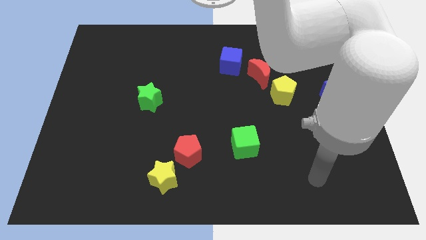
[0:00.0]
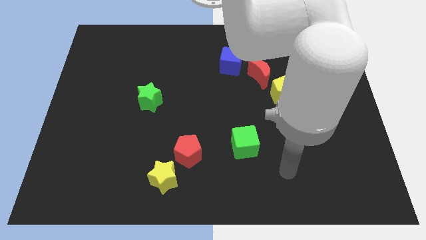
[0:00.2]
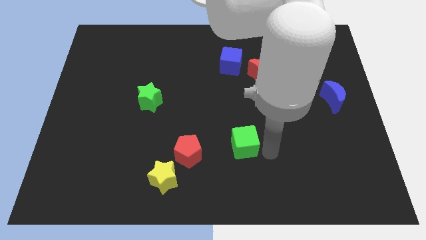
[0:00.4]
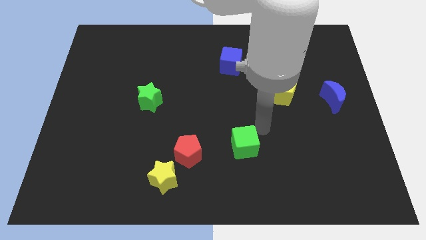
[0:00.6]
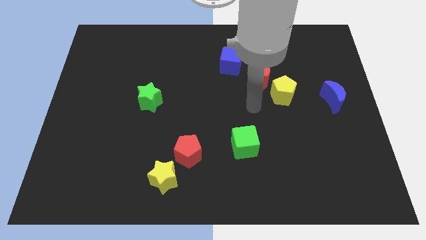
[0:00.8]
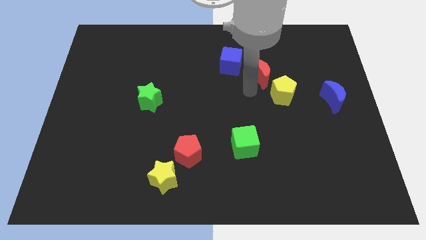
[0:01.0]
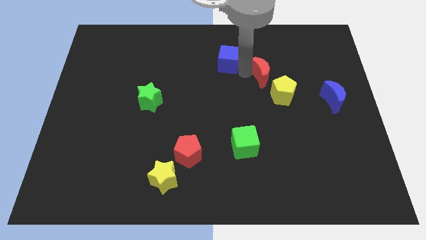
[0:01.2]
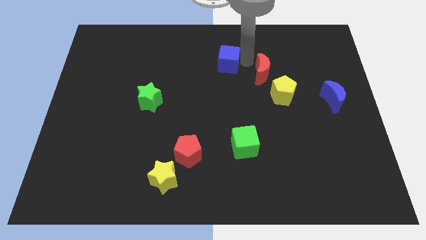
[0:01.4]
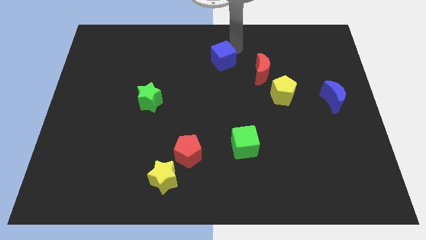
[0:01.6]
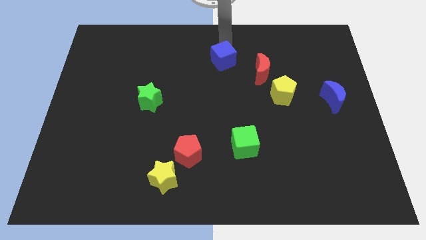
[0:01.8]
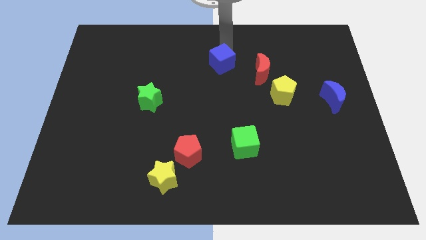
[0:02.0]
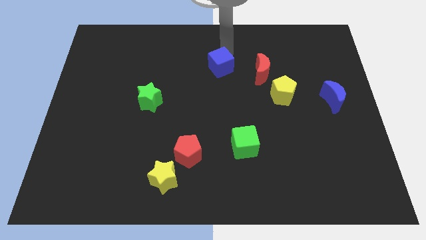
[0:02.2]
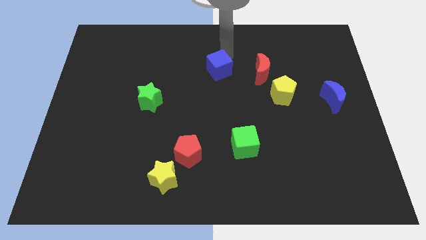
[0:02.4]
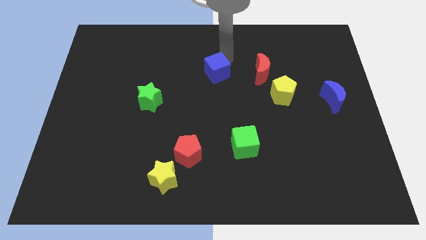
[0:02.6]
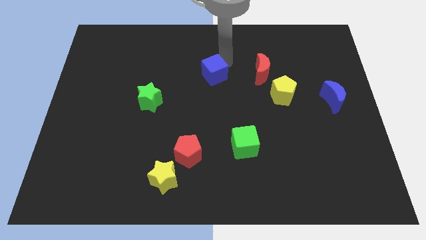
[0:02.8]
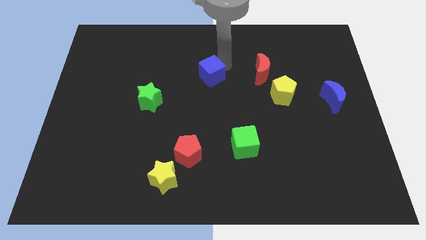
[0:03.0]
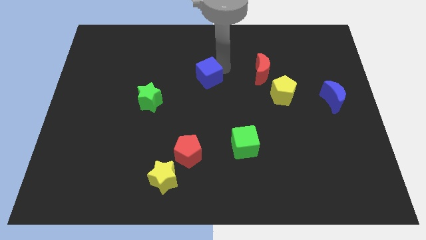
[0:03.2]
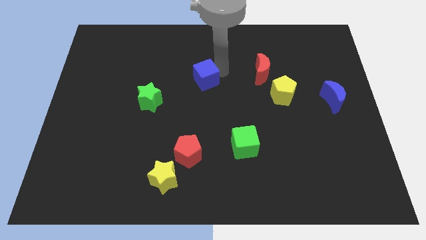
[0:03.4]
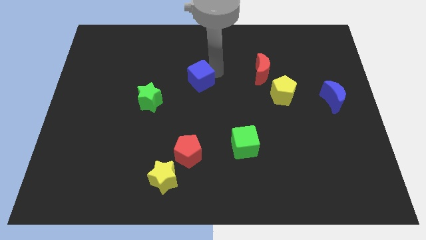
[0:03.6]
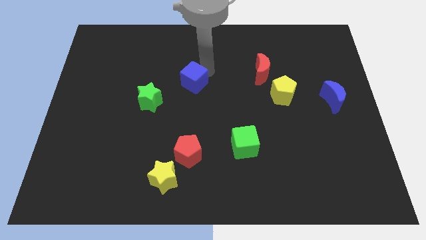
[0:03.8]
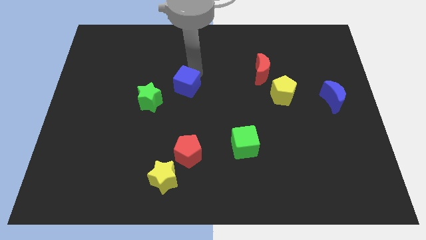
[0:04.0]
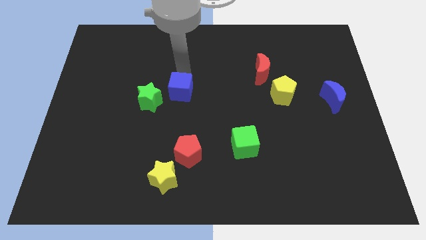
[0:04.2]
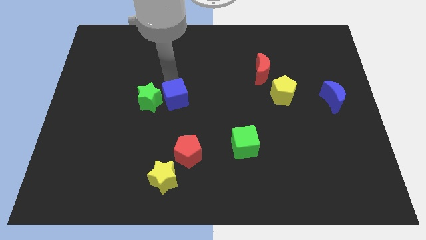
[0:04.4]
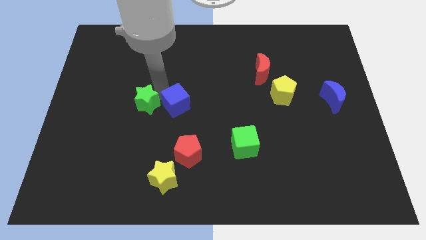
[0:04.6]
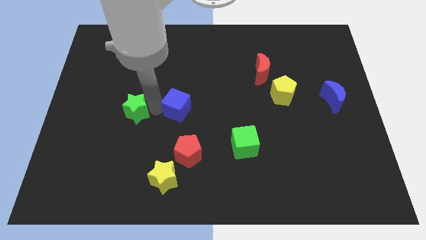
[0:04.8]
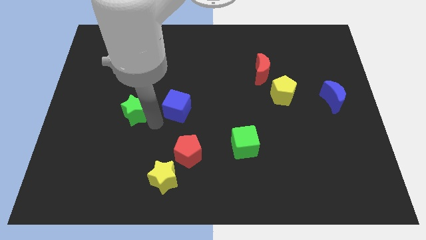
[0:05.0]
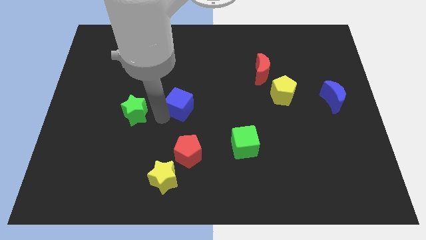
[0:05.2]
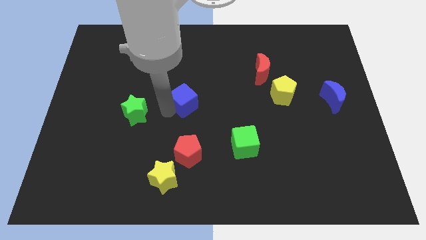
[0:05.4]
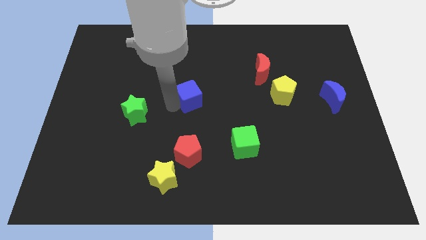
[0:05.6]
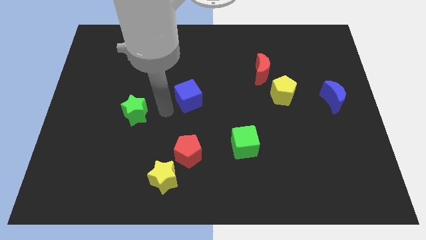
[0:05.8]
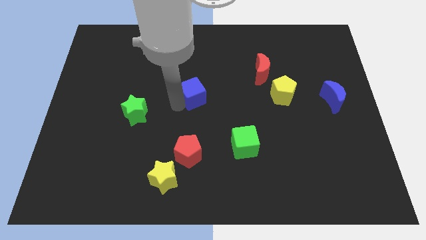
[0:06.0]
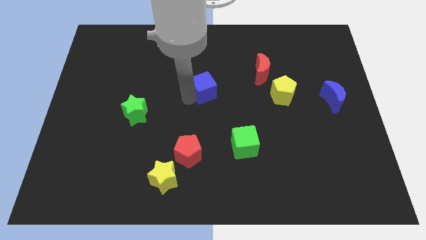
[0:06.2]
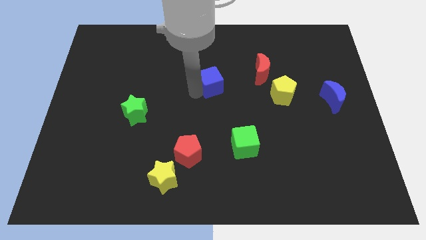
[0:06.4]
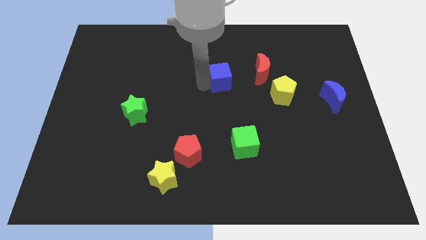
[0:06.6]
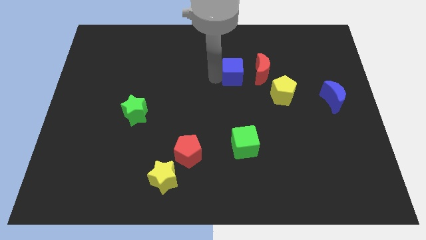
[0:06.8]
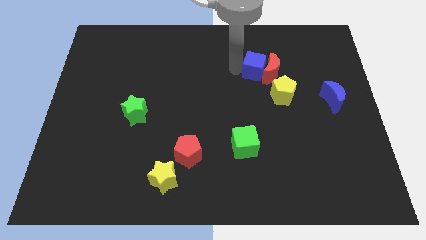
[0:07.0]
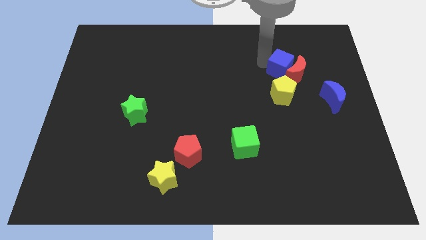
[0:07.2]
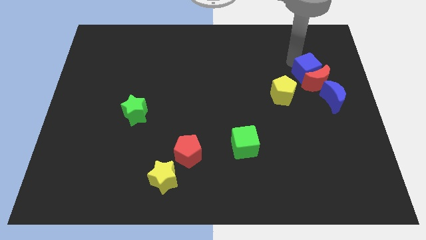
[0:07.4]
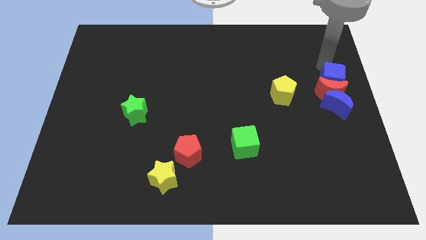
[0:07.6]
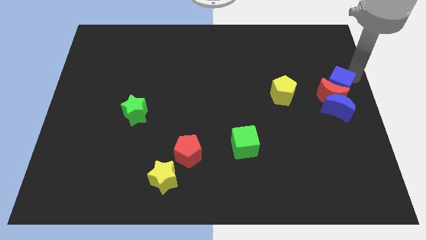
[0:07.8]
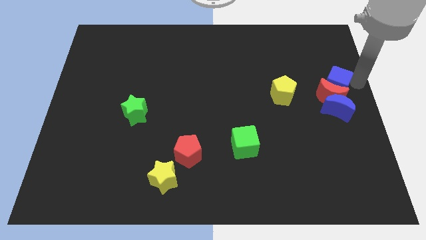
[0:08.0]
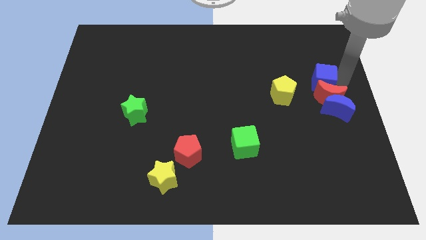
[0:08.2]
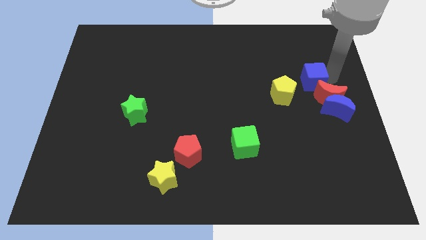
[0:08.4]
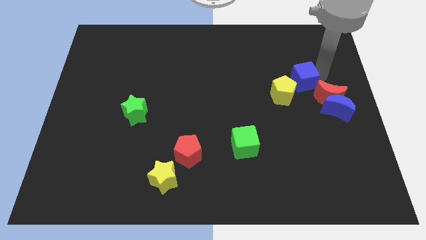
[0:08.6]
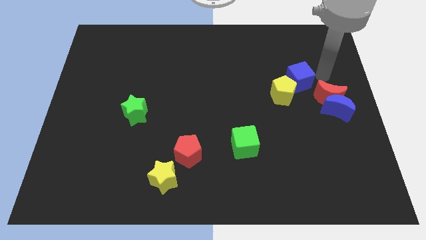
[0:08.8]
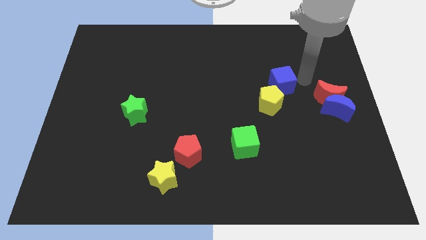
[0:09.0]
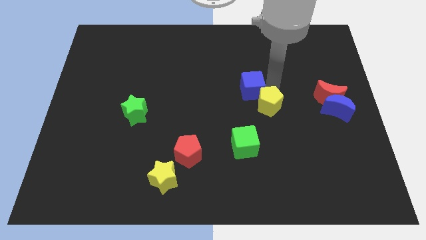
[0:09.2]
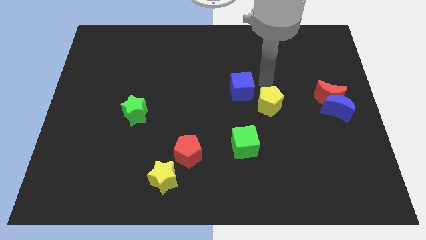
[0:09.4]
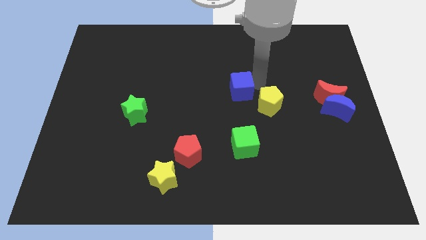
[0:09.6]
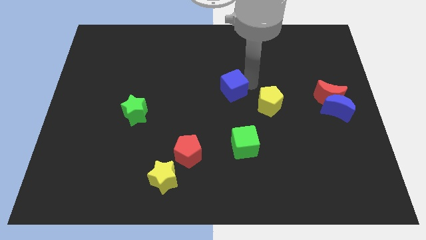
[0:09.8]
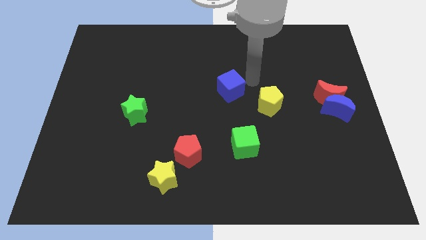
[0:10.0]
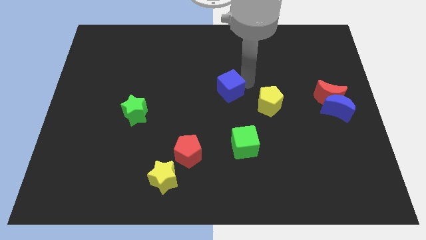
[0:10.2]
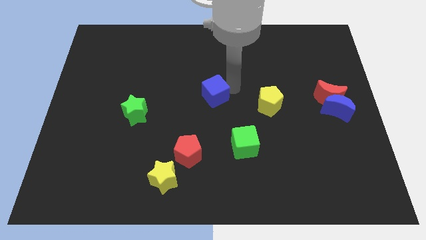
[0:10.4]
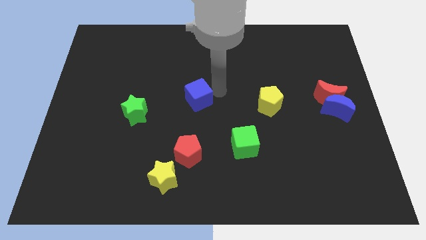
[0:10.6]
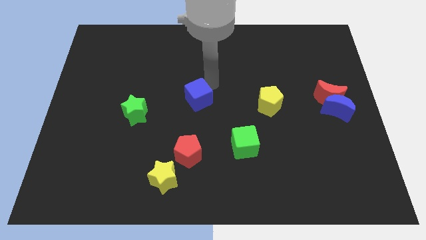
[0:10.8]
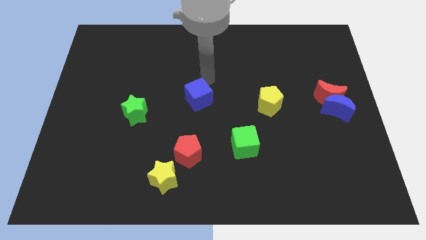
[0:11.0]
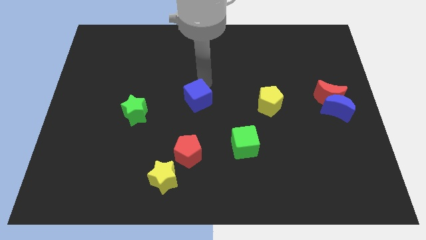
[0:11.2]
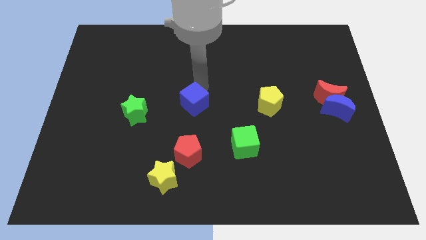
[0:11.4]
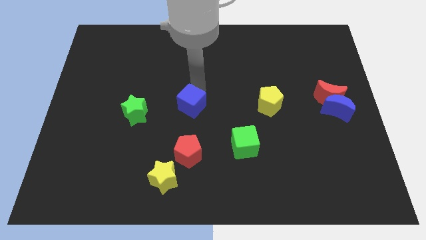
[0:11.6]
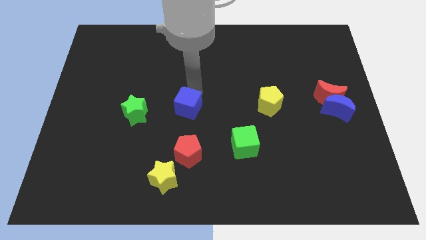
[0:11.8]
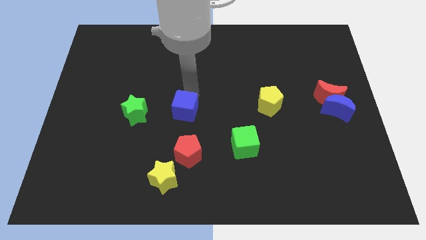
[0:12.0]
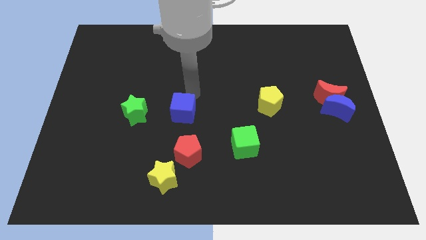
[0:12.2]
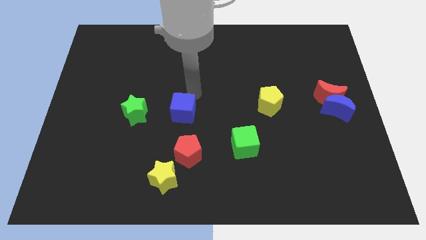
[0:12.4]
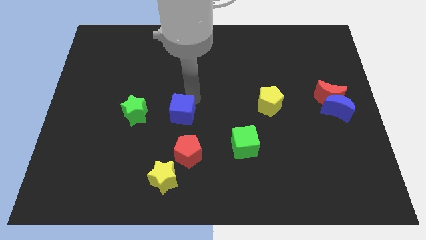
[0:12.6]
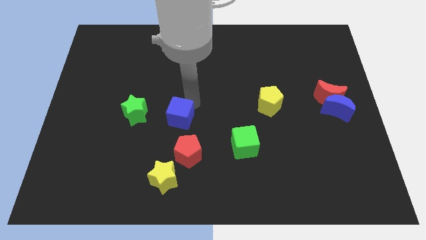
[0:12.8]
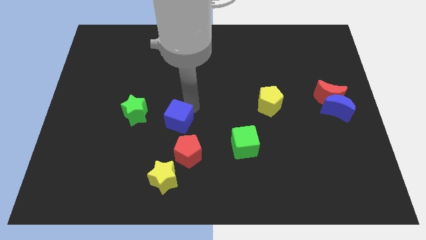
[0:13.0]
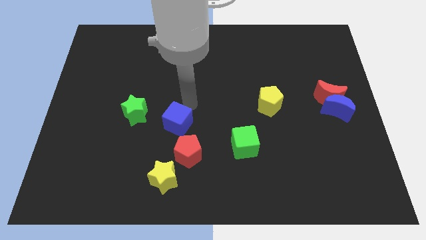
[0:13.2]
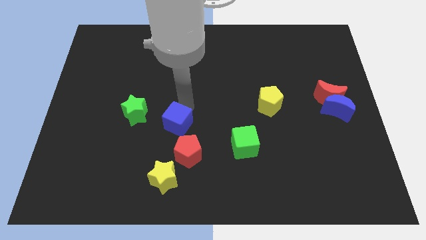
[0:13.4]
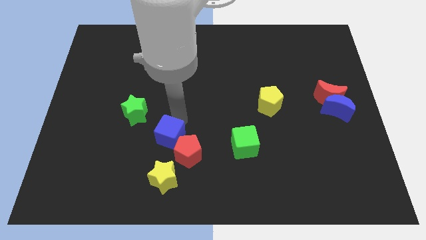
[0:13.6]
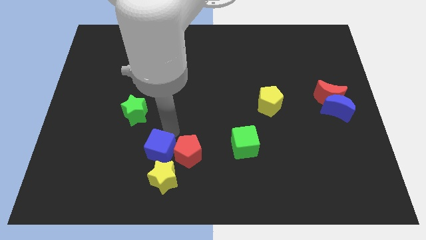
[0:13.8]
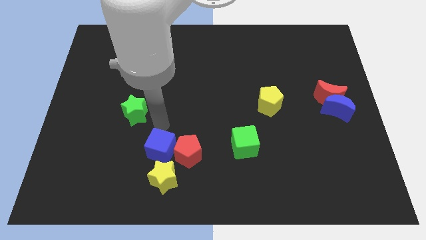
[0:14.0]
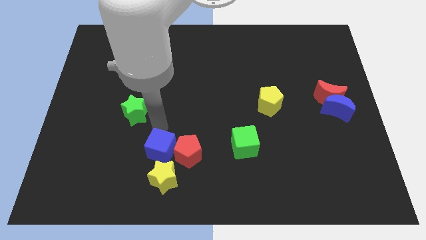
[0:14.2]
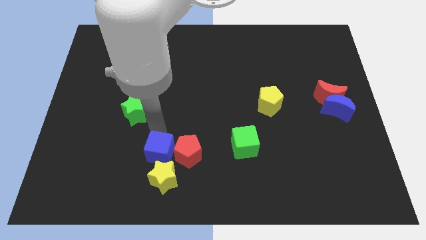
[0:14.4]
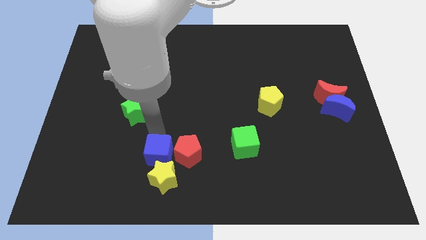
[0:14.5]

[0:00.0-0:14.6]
slide the blue cube close to the yellow star
